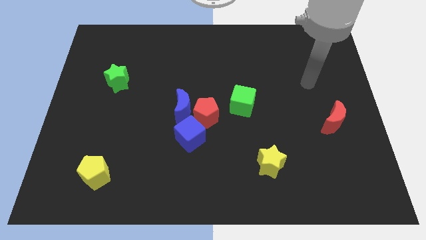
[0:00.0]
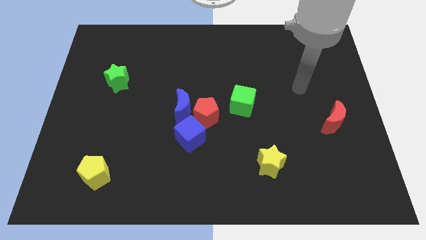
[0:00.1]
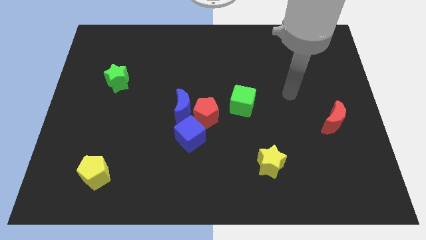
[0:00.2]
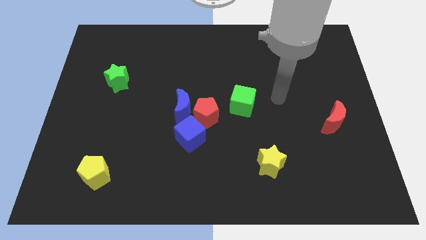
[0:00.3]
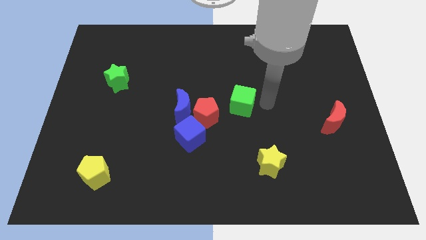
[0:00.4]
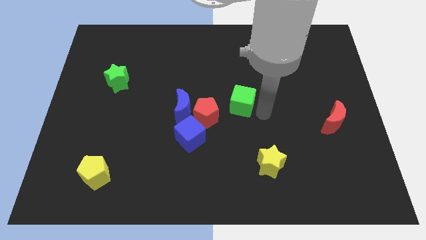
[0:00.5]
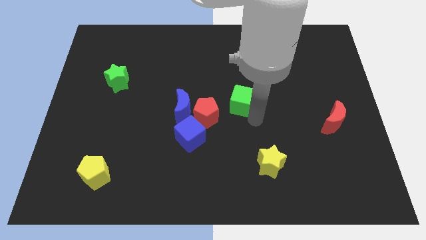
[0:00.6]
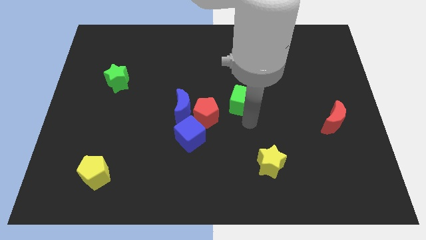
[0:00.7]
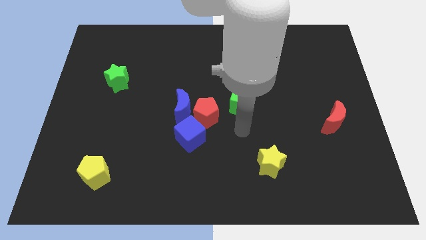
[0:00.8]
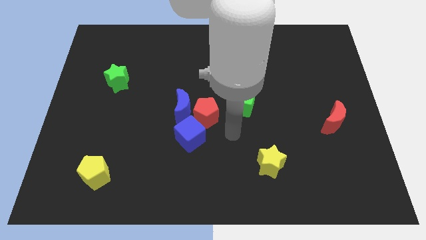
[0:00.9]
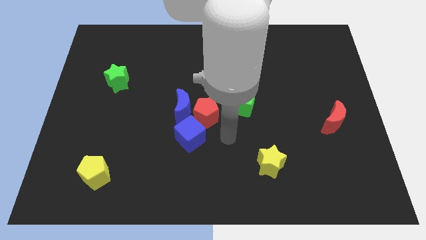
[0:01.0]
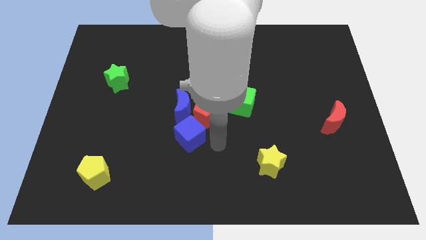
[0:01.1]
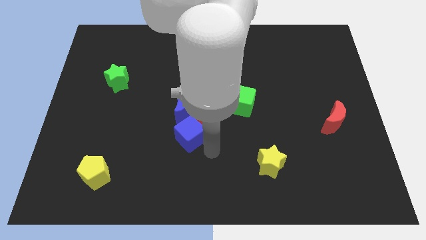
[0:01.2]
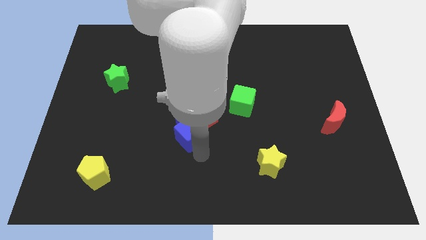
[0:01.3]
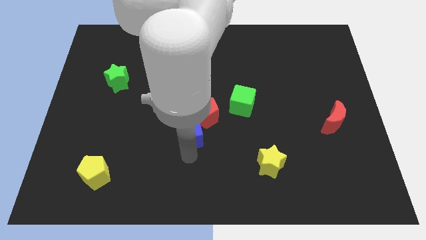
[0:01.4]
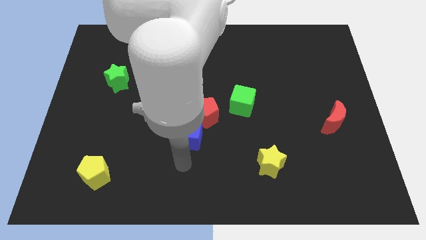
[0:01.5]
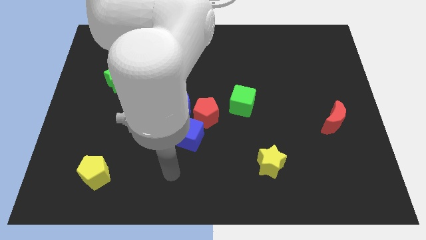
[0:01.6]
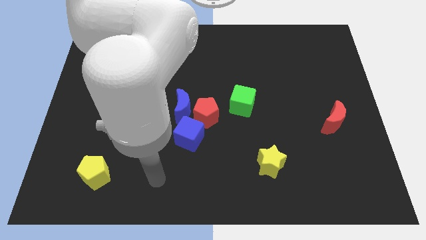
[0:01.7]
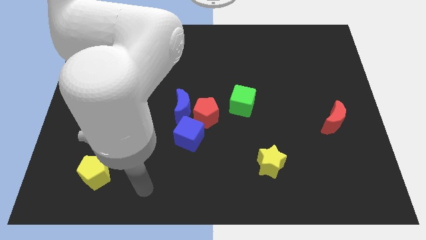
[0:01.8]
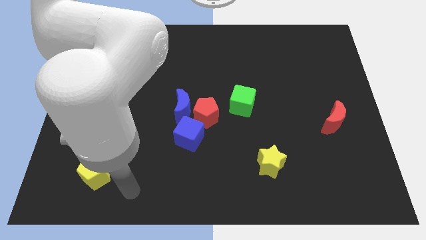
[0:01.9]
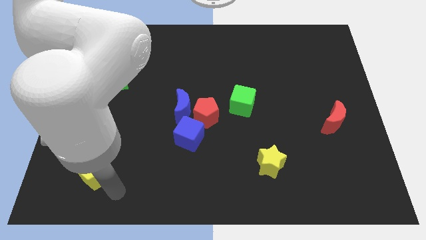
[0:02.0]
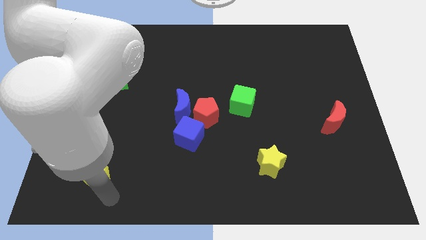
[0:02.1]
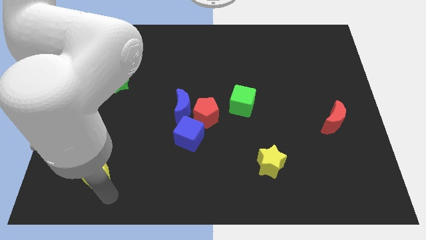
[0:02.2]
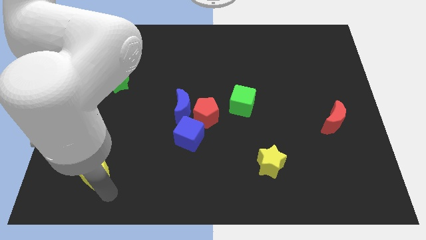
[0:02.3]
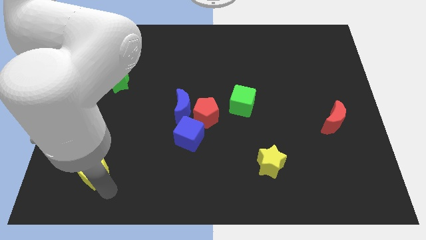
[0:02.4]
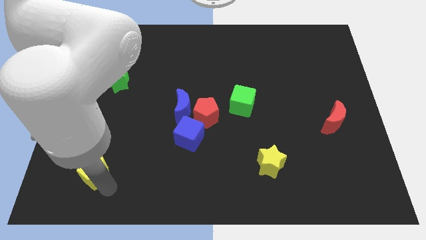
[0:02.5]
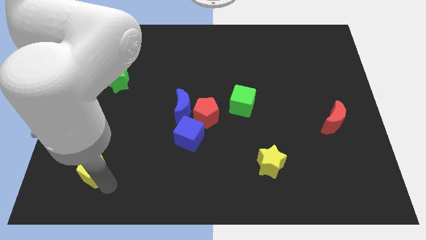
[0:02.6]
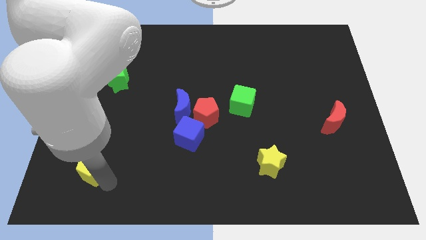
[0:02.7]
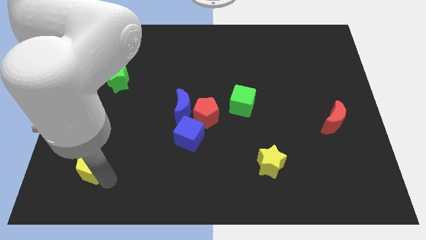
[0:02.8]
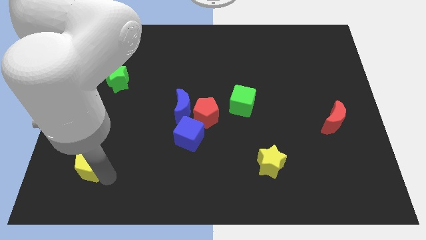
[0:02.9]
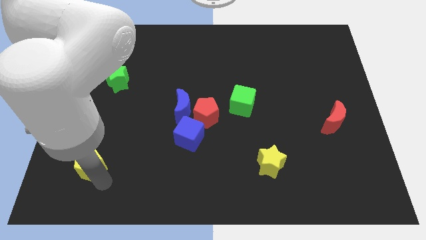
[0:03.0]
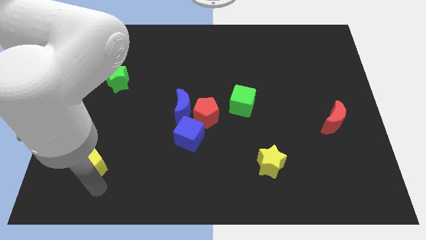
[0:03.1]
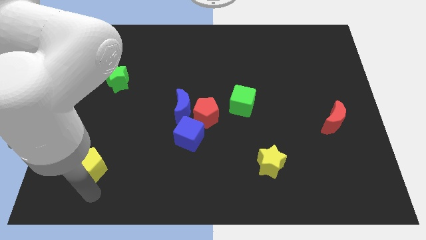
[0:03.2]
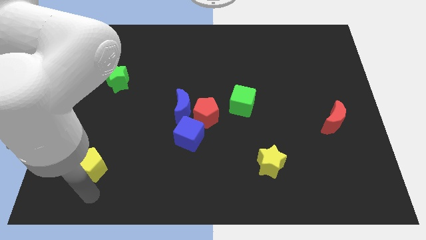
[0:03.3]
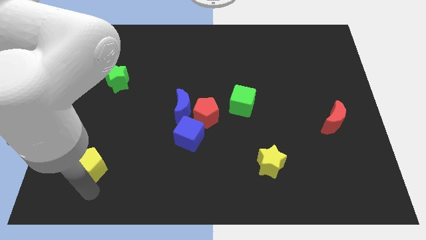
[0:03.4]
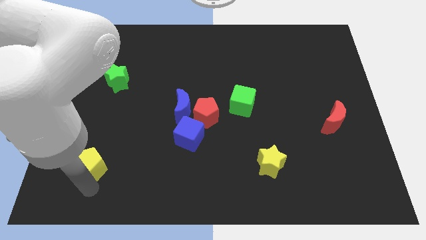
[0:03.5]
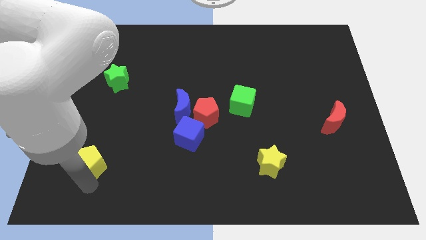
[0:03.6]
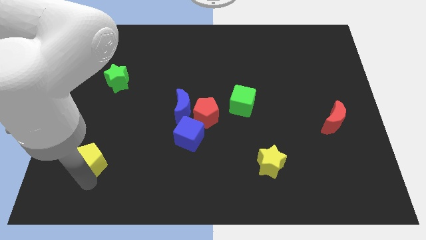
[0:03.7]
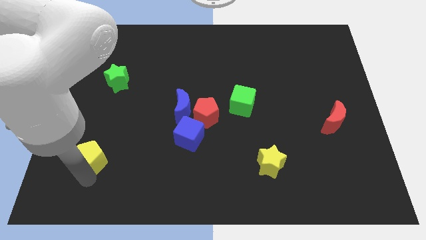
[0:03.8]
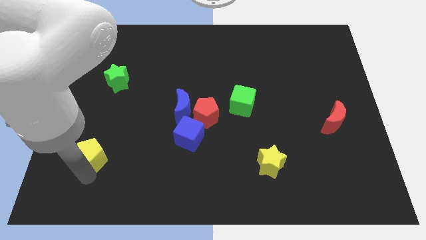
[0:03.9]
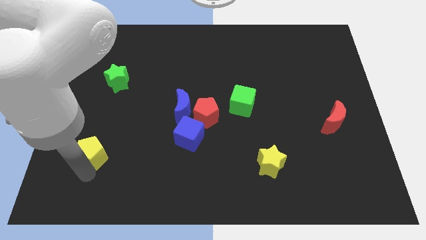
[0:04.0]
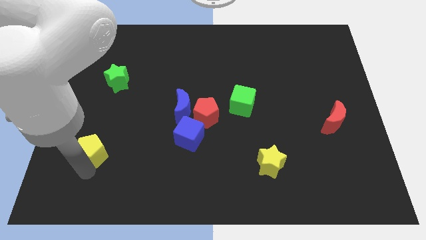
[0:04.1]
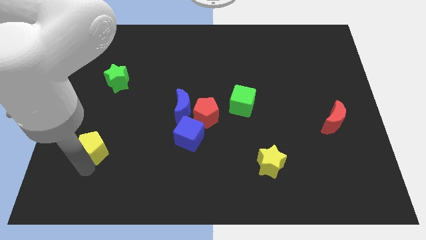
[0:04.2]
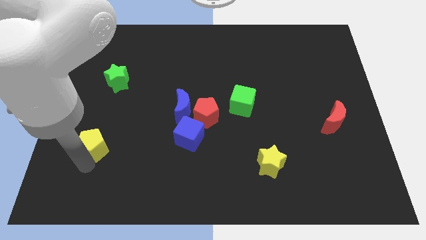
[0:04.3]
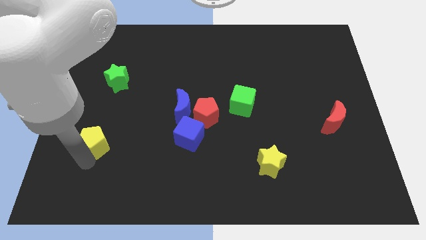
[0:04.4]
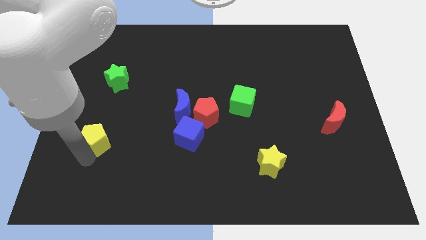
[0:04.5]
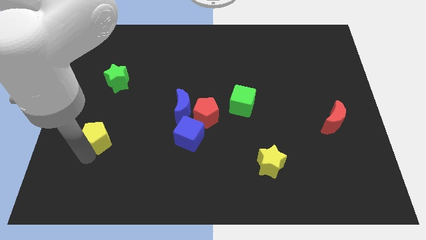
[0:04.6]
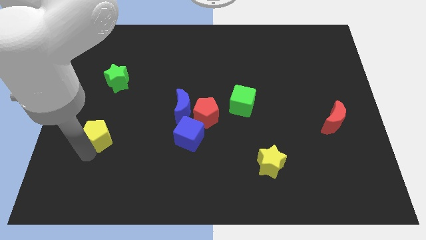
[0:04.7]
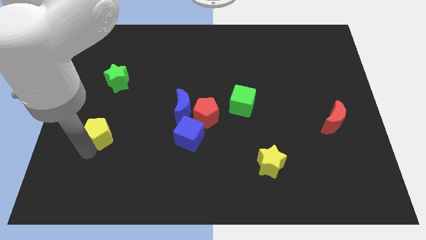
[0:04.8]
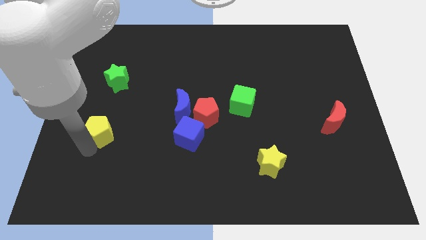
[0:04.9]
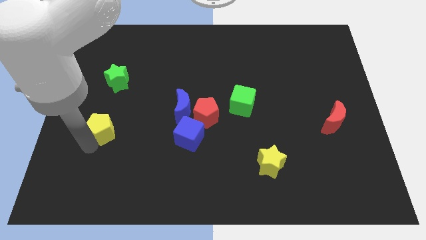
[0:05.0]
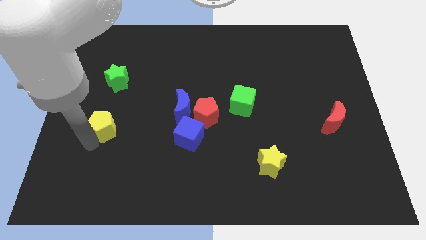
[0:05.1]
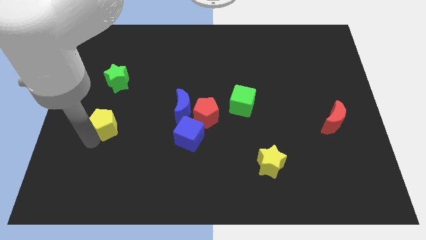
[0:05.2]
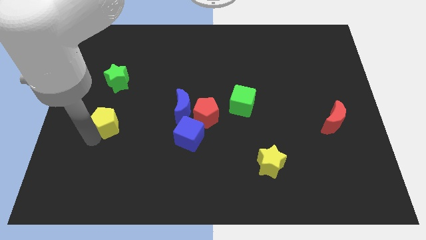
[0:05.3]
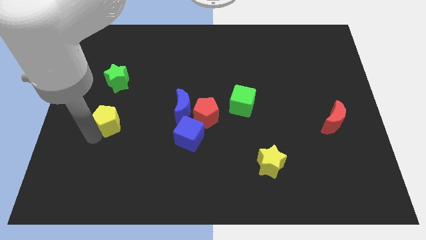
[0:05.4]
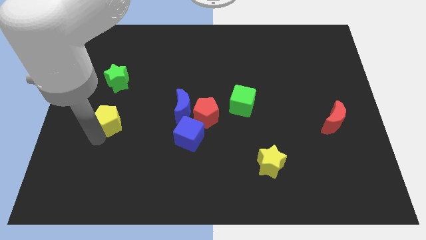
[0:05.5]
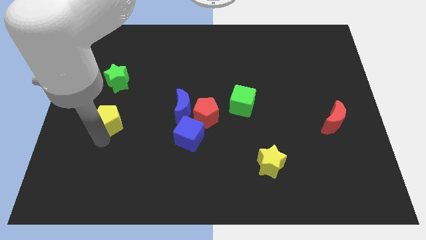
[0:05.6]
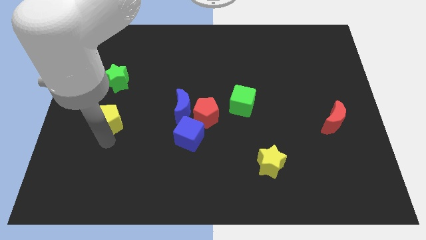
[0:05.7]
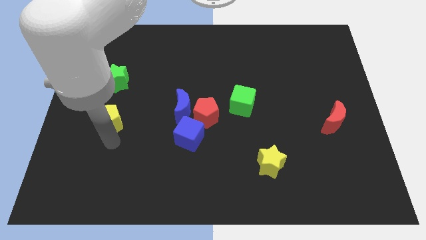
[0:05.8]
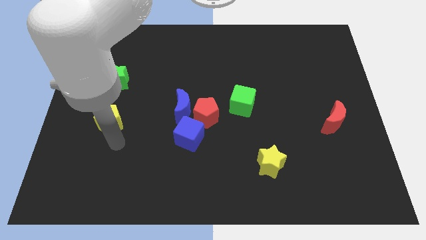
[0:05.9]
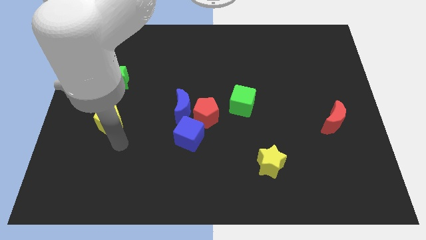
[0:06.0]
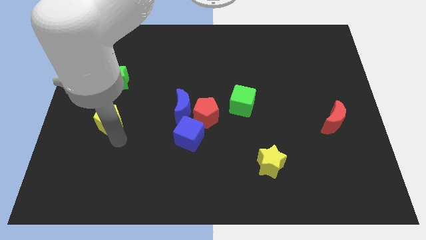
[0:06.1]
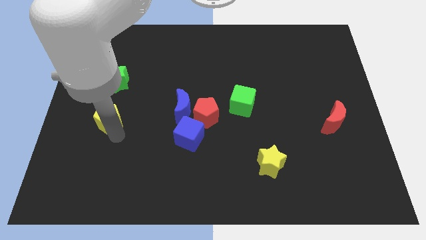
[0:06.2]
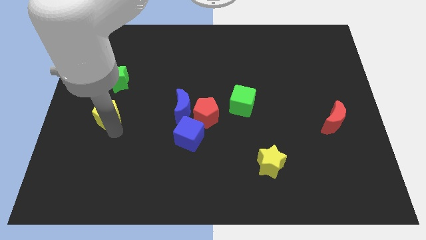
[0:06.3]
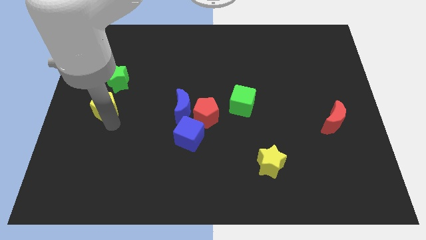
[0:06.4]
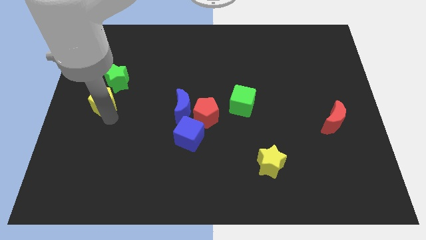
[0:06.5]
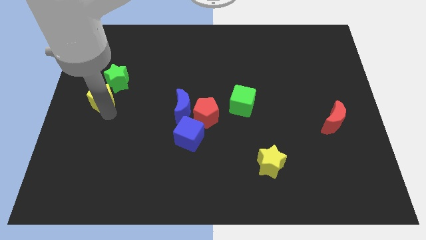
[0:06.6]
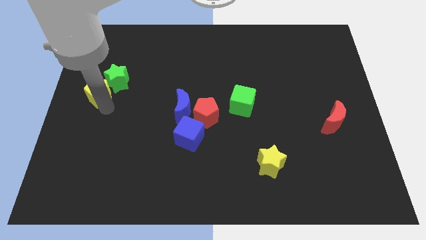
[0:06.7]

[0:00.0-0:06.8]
move the yellow pentagon upwards

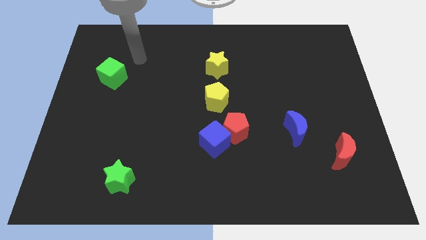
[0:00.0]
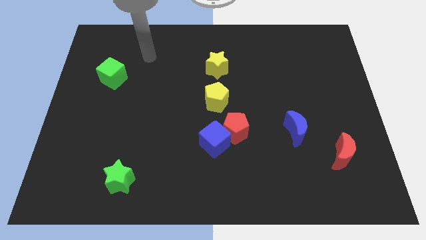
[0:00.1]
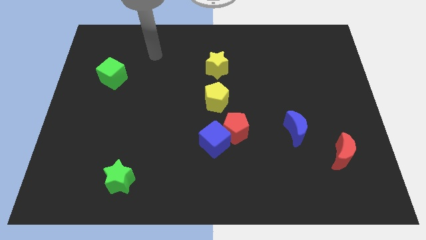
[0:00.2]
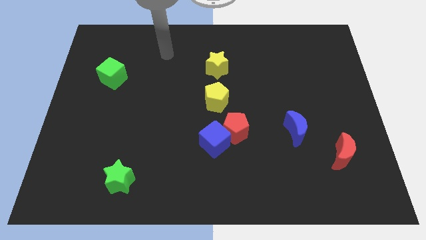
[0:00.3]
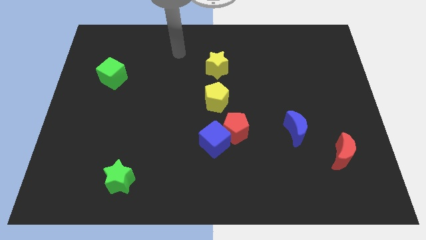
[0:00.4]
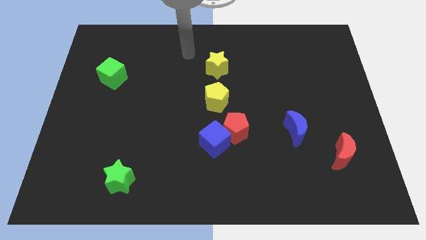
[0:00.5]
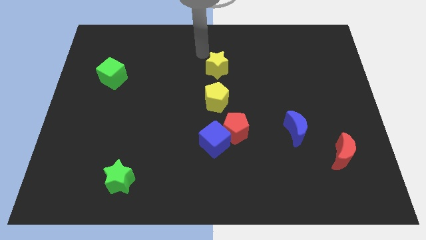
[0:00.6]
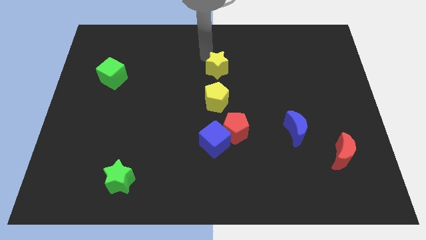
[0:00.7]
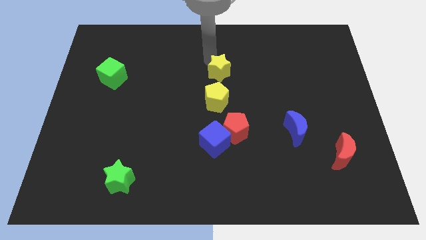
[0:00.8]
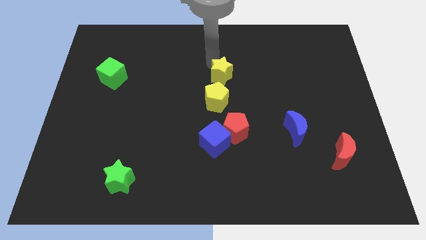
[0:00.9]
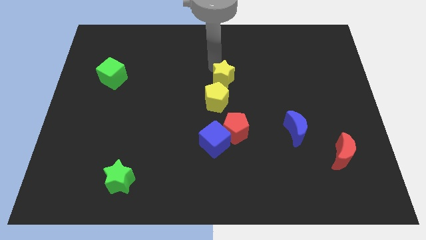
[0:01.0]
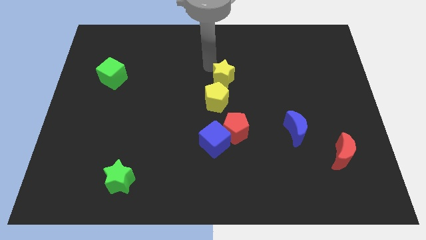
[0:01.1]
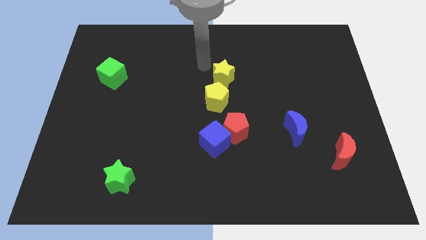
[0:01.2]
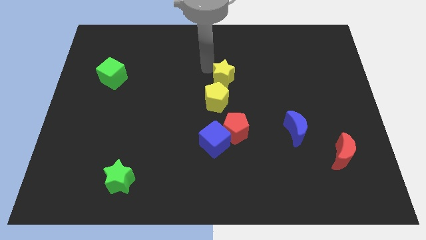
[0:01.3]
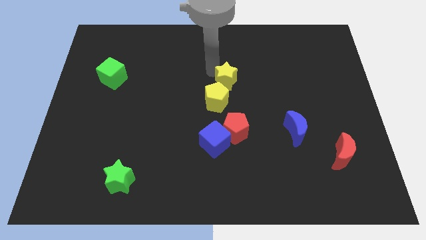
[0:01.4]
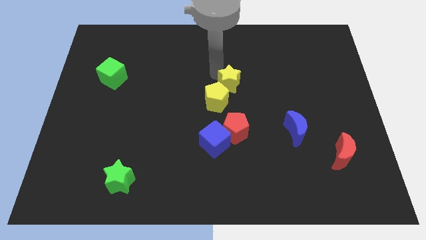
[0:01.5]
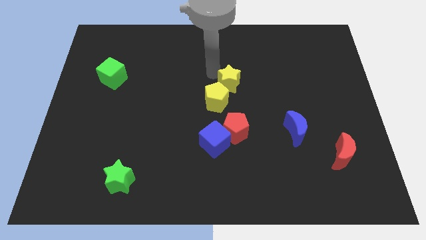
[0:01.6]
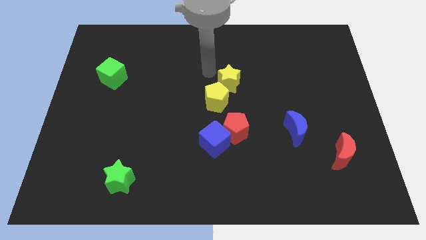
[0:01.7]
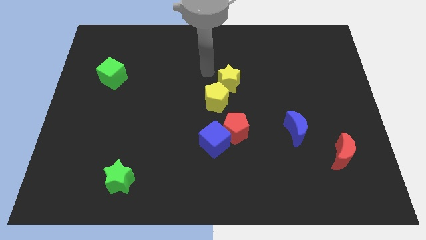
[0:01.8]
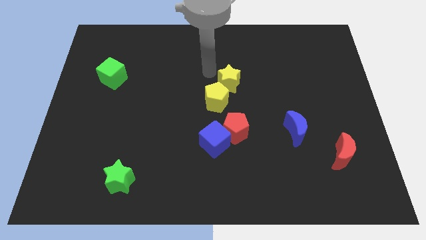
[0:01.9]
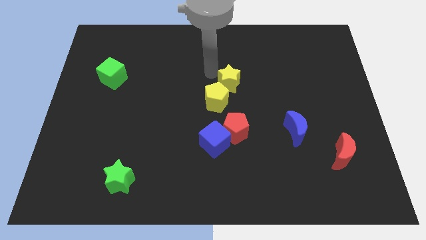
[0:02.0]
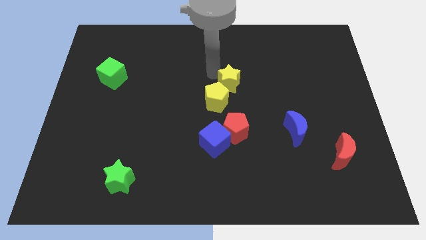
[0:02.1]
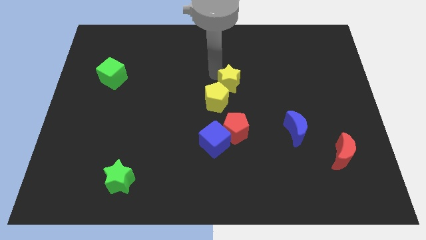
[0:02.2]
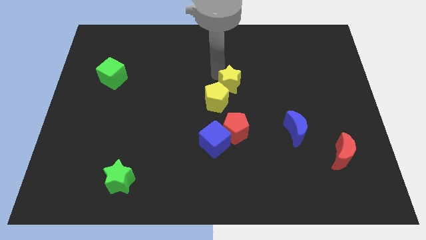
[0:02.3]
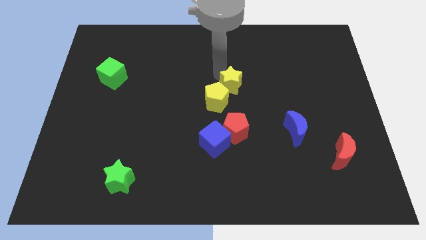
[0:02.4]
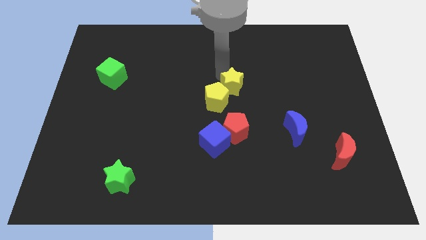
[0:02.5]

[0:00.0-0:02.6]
slide the yellow star somewhat down and then to the right
